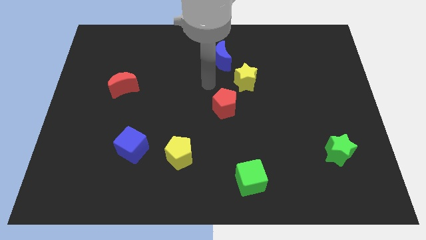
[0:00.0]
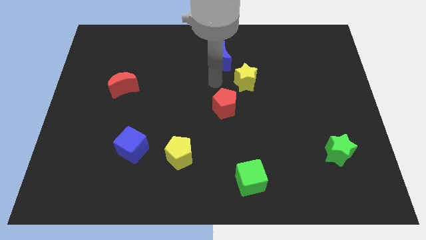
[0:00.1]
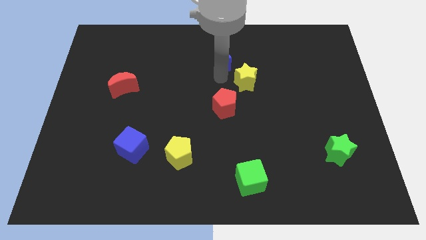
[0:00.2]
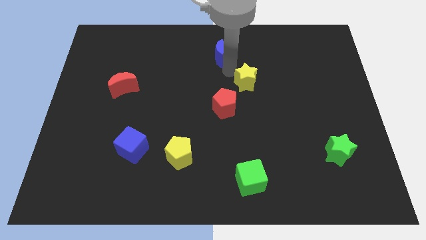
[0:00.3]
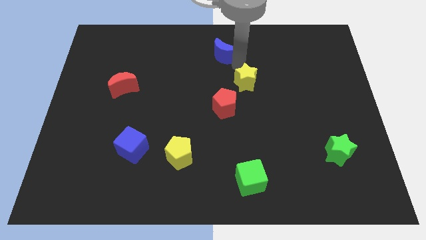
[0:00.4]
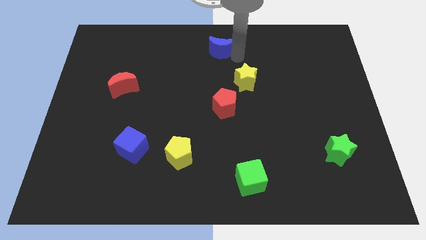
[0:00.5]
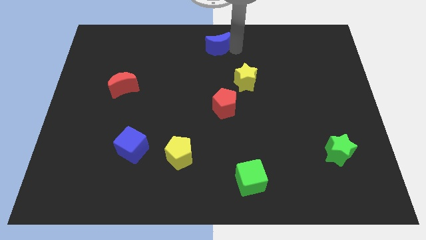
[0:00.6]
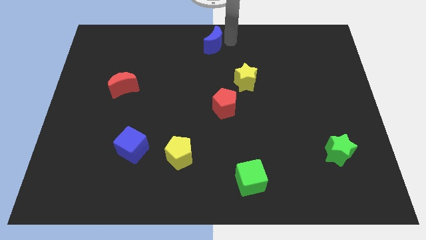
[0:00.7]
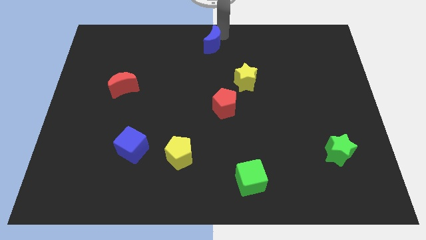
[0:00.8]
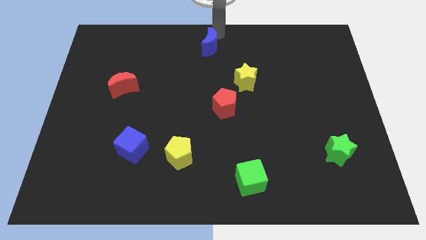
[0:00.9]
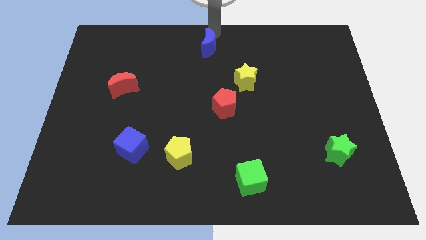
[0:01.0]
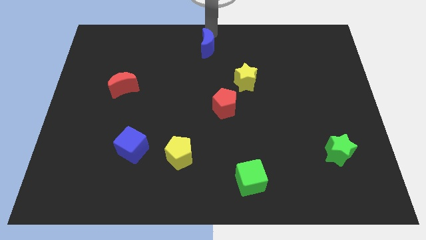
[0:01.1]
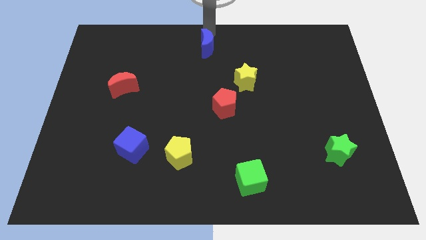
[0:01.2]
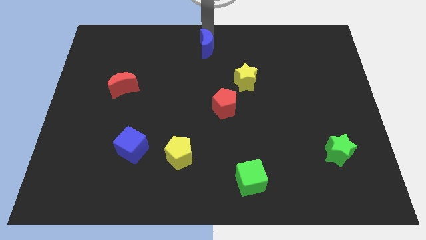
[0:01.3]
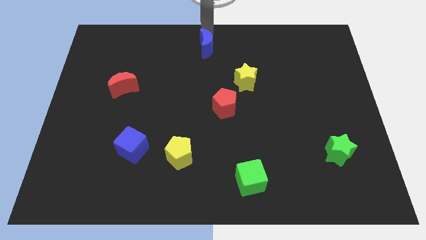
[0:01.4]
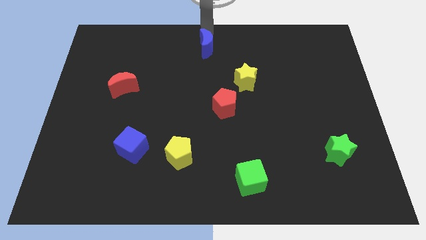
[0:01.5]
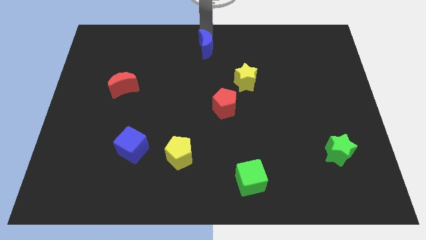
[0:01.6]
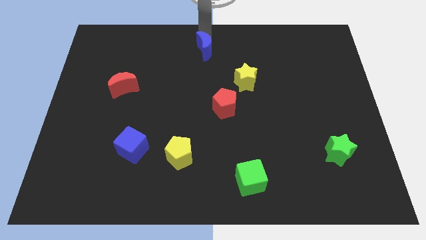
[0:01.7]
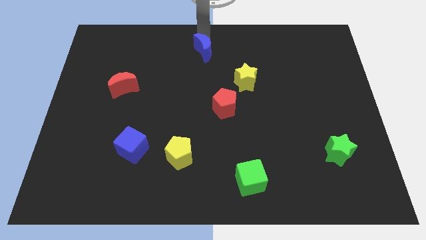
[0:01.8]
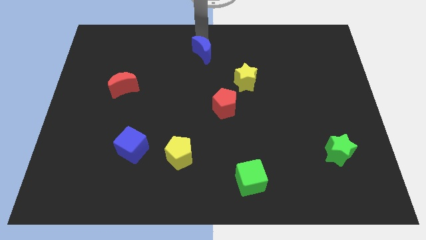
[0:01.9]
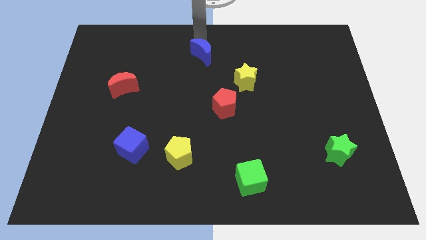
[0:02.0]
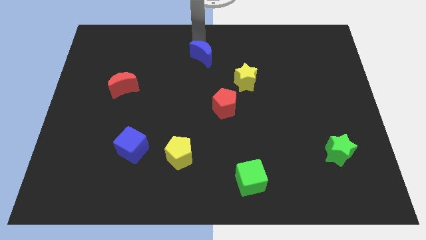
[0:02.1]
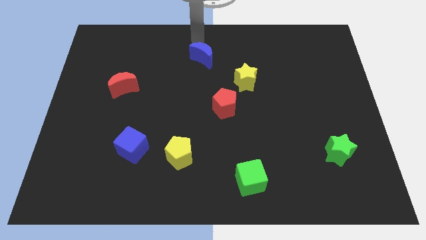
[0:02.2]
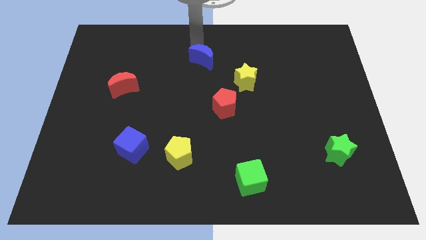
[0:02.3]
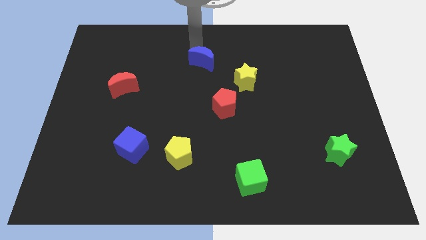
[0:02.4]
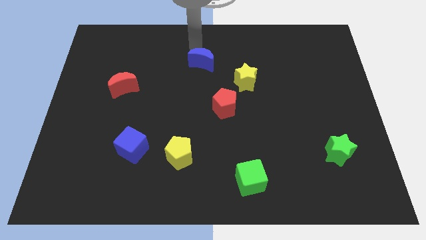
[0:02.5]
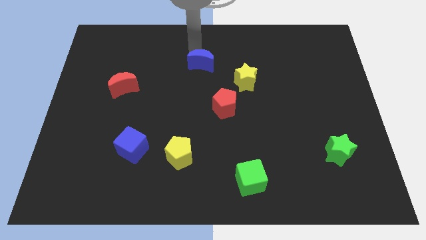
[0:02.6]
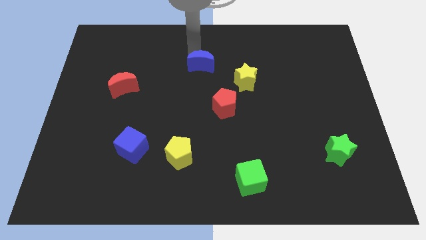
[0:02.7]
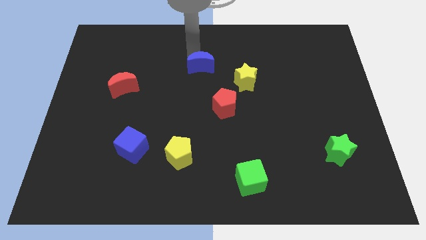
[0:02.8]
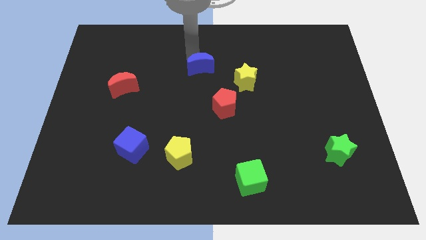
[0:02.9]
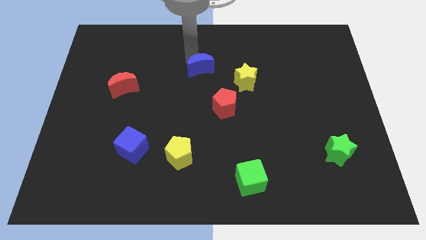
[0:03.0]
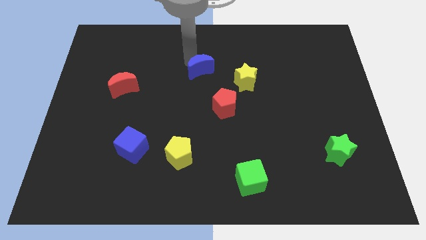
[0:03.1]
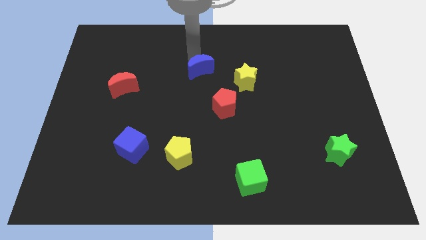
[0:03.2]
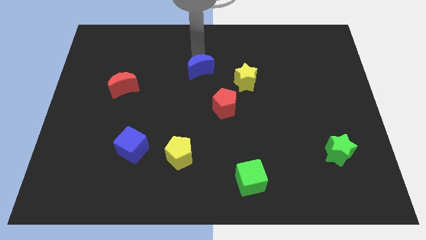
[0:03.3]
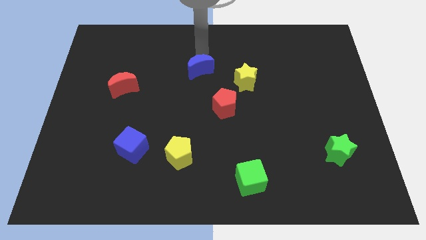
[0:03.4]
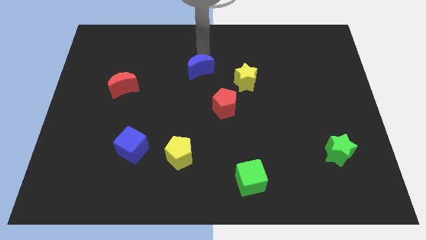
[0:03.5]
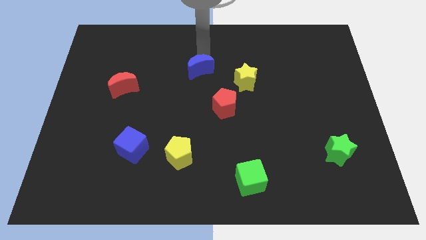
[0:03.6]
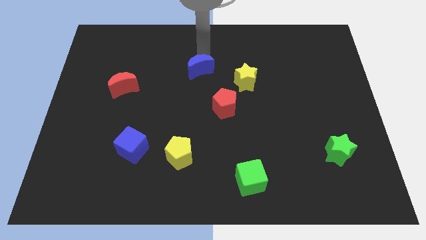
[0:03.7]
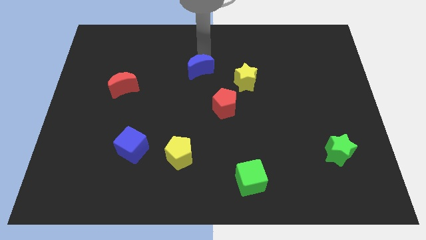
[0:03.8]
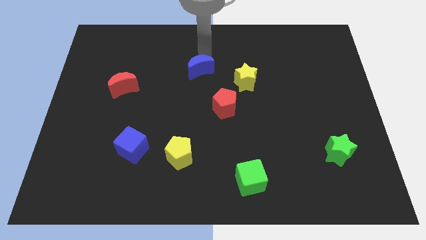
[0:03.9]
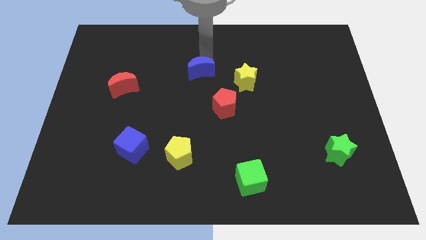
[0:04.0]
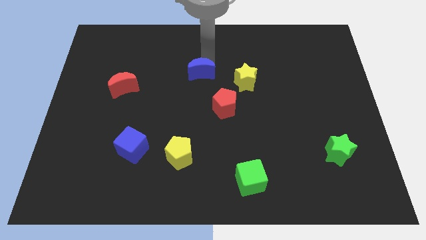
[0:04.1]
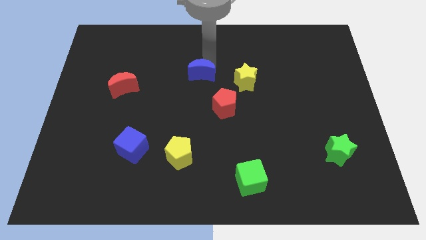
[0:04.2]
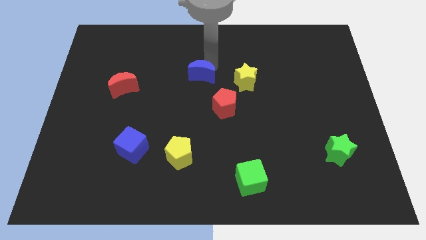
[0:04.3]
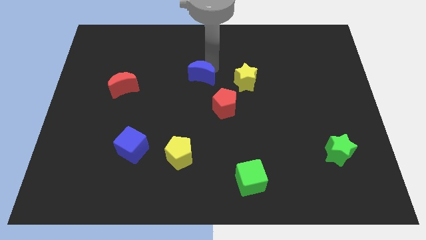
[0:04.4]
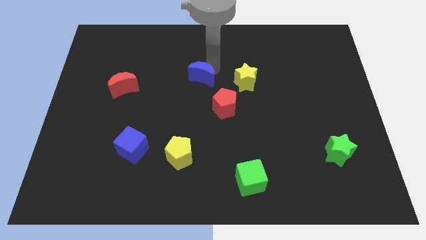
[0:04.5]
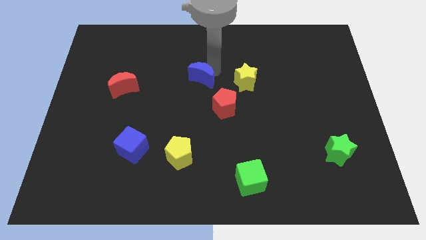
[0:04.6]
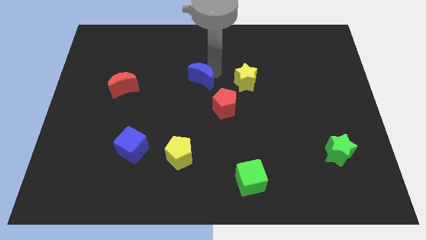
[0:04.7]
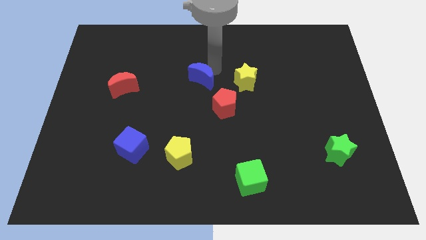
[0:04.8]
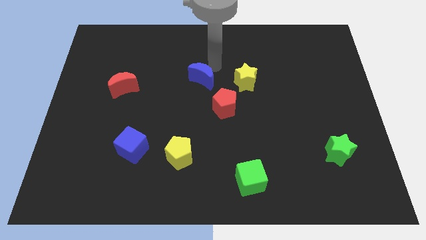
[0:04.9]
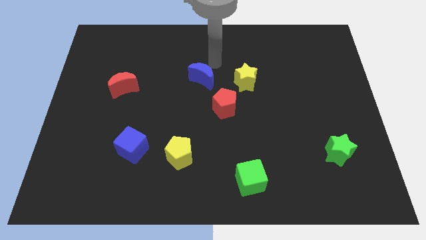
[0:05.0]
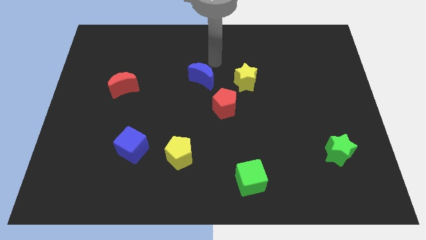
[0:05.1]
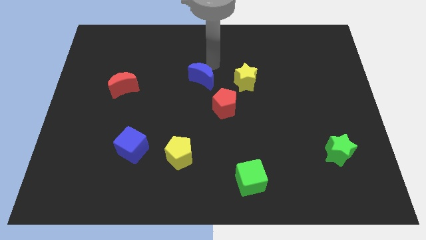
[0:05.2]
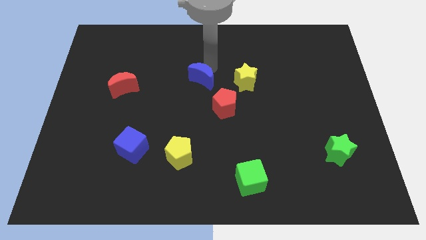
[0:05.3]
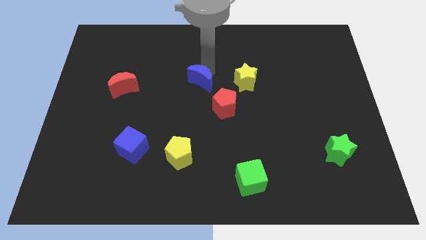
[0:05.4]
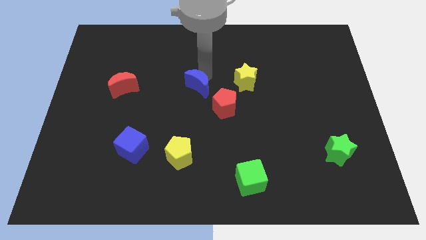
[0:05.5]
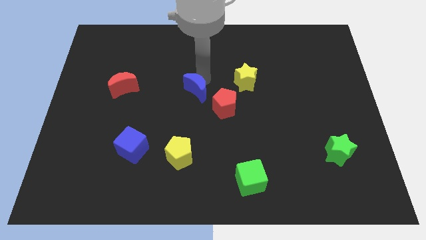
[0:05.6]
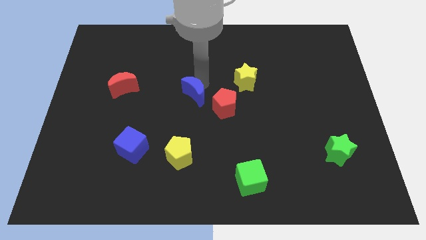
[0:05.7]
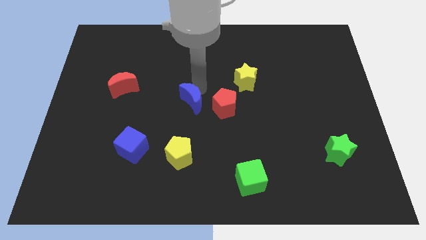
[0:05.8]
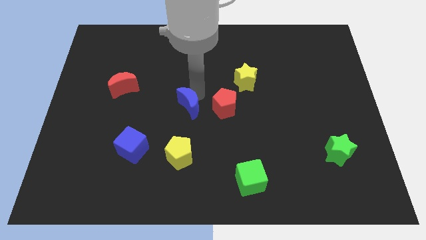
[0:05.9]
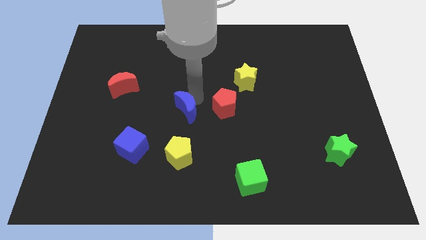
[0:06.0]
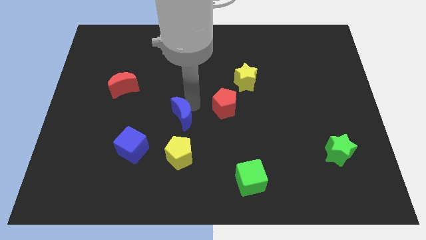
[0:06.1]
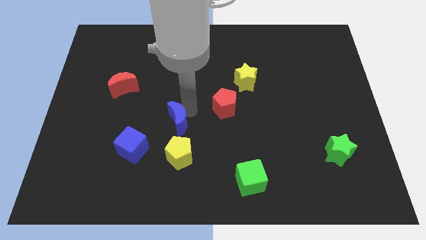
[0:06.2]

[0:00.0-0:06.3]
put the blue moon diagonally up and to the right of the blue cube

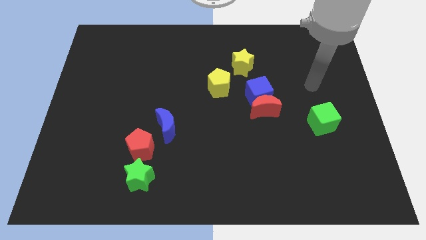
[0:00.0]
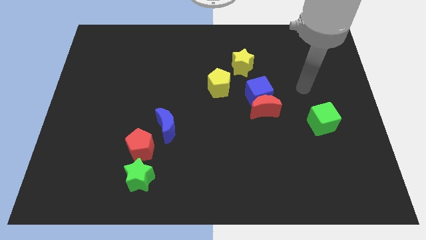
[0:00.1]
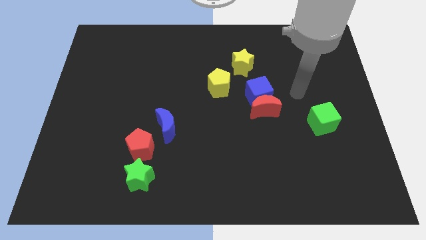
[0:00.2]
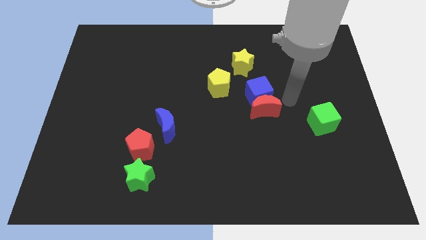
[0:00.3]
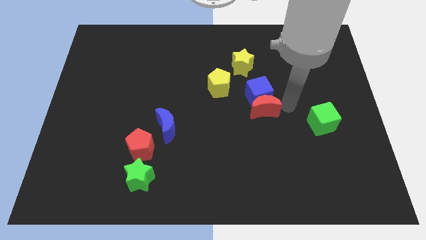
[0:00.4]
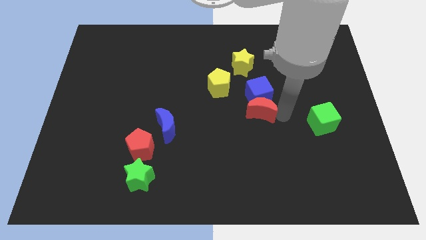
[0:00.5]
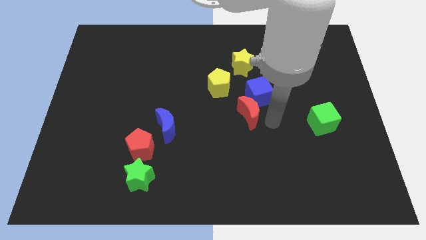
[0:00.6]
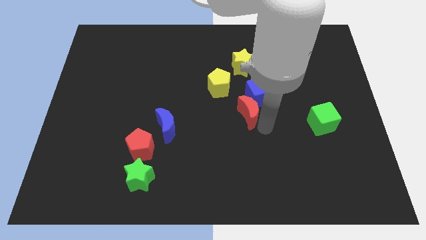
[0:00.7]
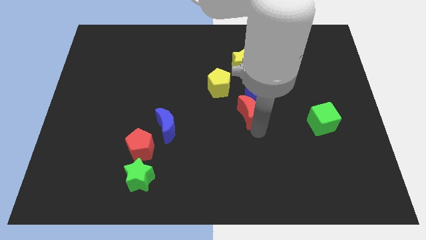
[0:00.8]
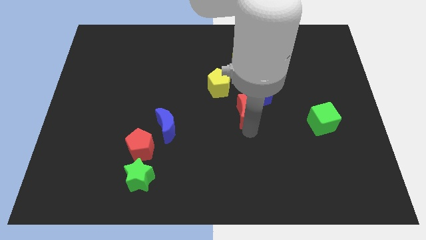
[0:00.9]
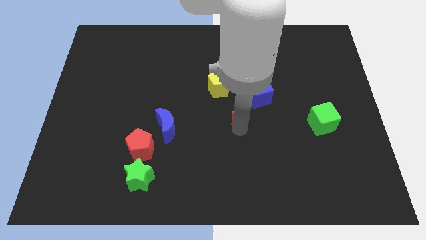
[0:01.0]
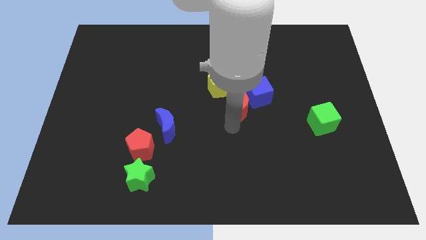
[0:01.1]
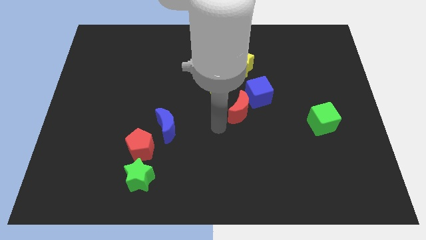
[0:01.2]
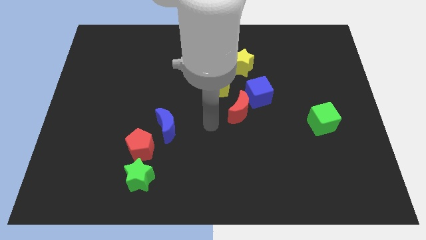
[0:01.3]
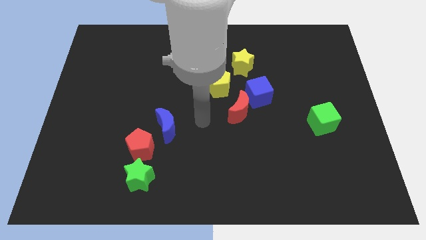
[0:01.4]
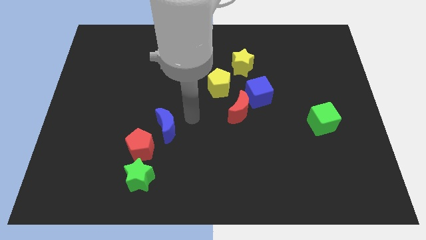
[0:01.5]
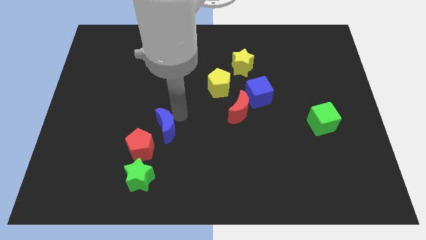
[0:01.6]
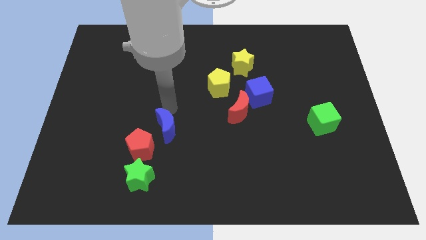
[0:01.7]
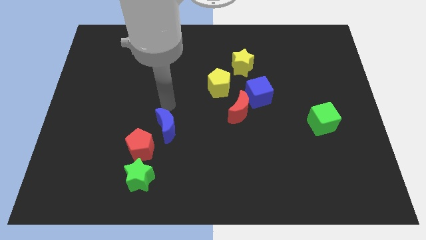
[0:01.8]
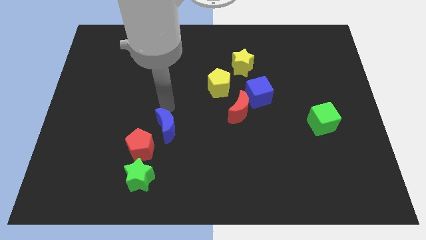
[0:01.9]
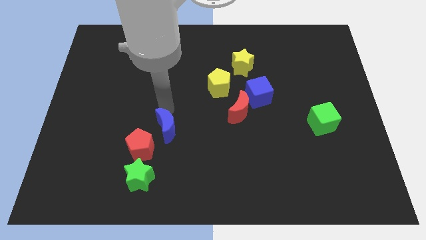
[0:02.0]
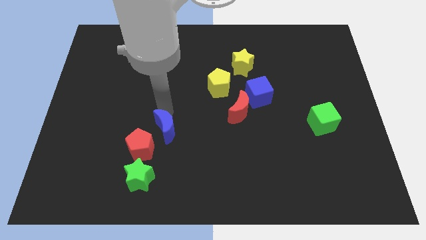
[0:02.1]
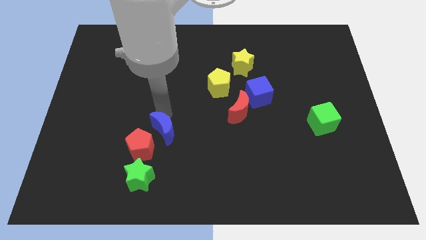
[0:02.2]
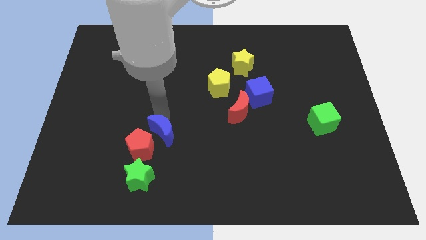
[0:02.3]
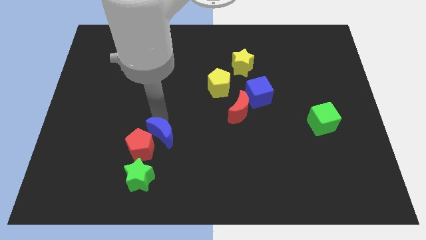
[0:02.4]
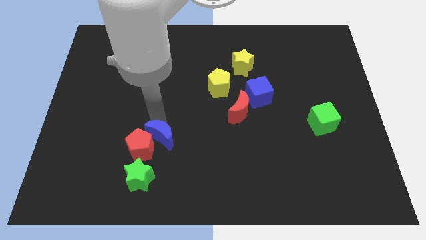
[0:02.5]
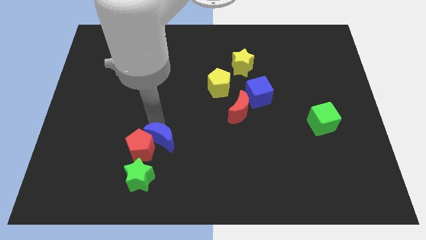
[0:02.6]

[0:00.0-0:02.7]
push the blue moon to the top right of the green star
